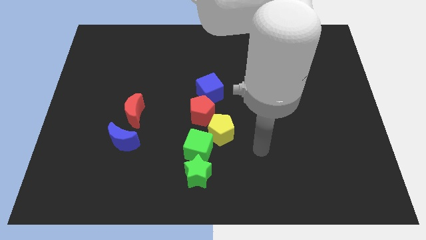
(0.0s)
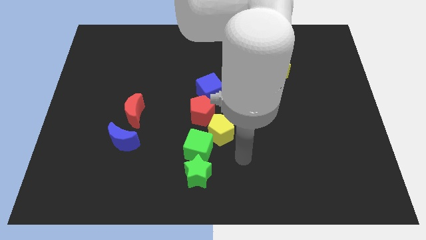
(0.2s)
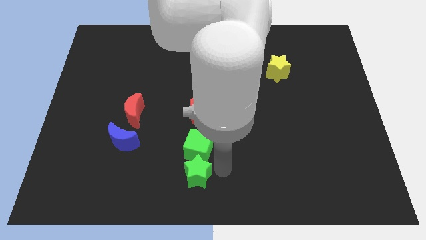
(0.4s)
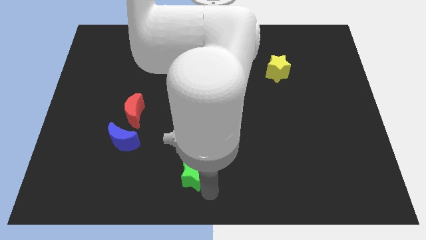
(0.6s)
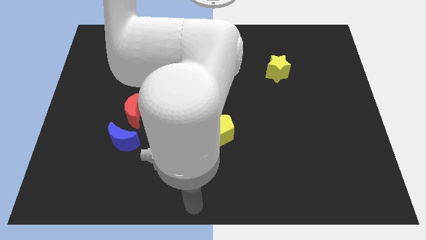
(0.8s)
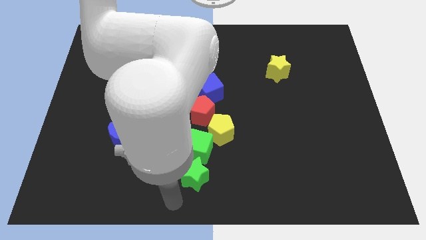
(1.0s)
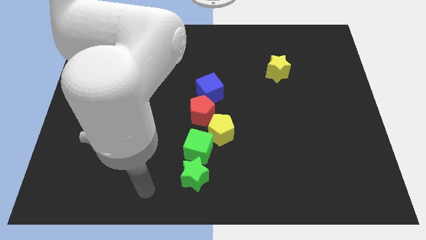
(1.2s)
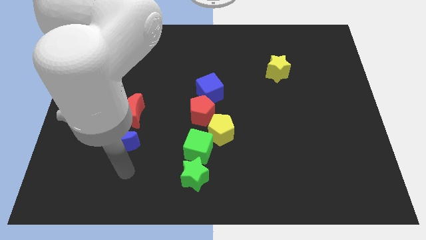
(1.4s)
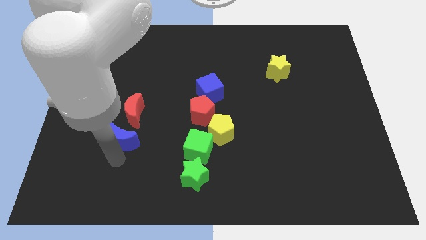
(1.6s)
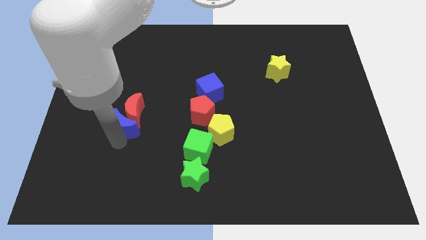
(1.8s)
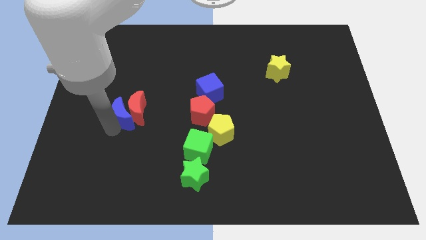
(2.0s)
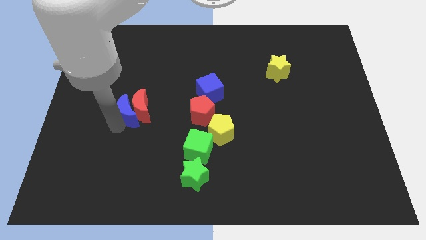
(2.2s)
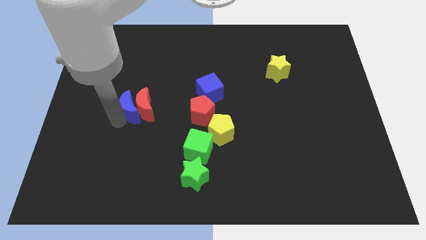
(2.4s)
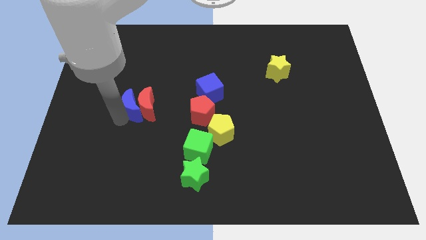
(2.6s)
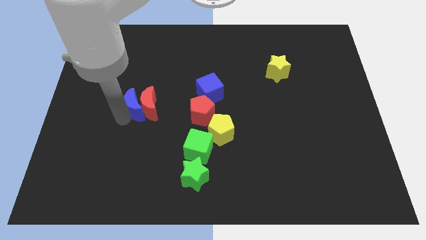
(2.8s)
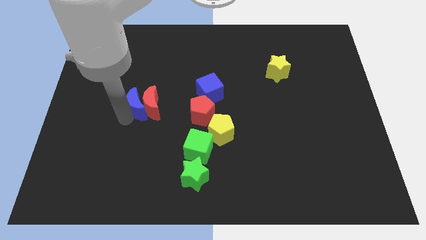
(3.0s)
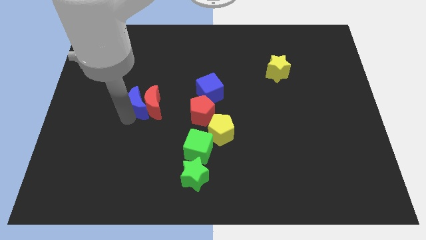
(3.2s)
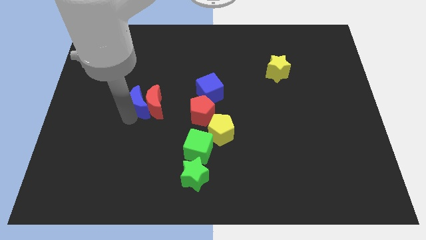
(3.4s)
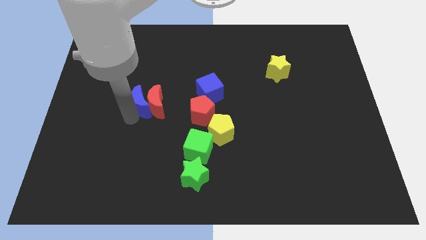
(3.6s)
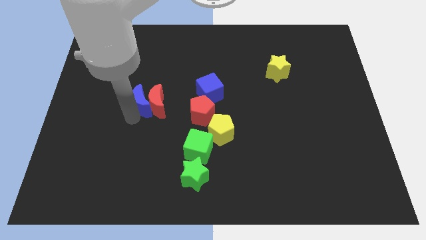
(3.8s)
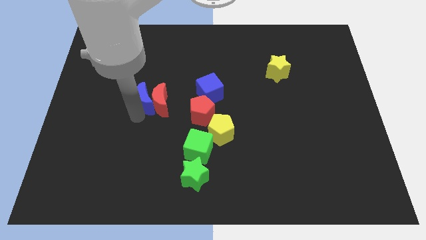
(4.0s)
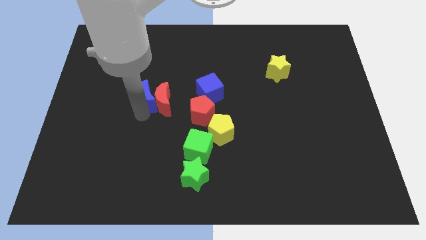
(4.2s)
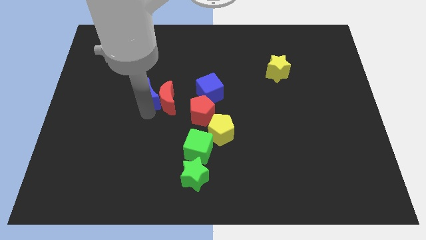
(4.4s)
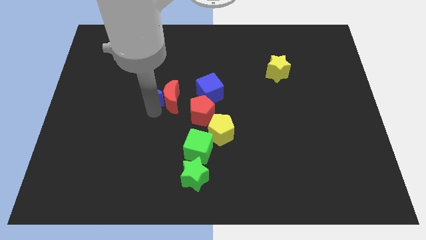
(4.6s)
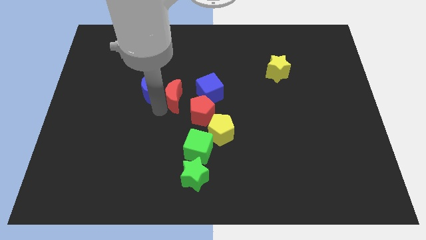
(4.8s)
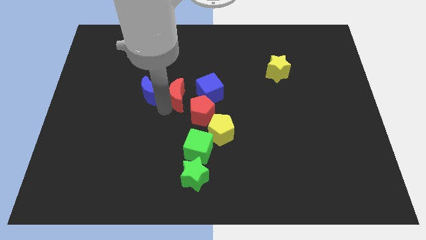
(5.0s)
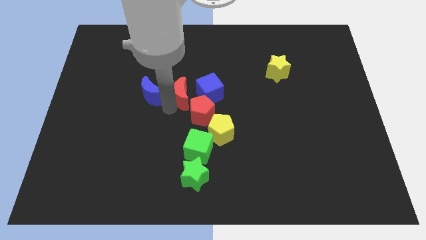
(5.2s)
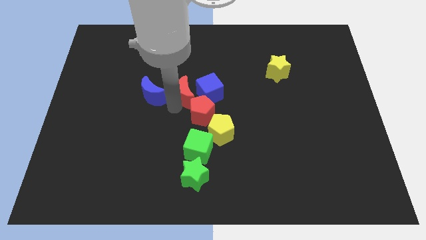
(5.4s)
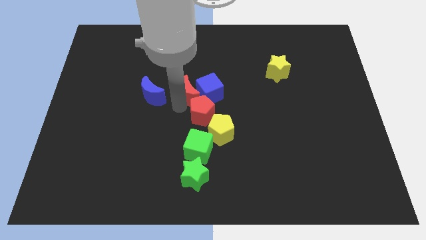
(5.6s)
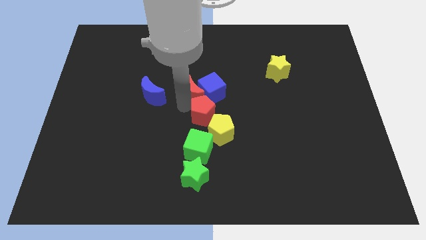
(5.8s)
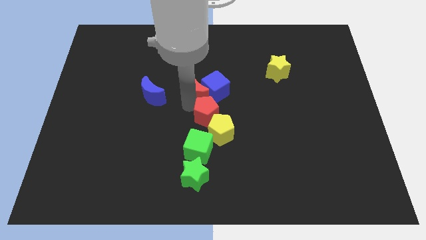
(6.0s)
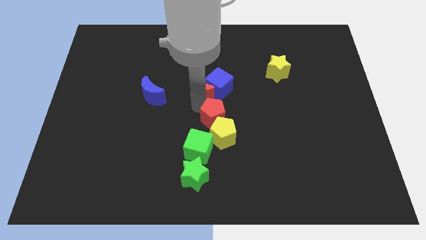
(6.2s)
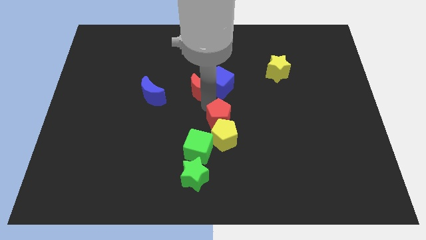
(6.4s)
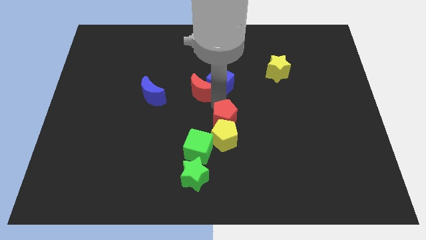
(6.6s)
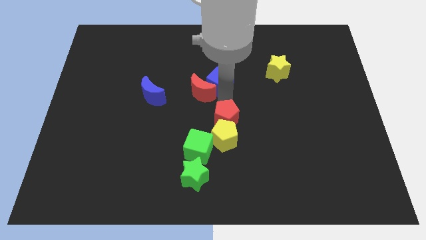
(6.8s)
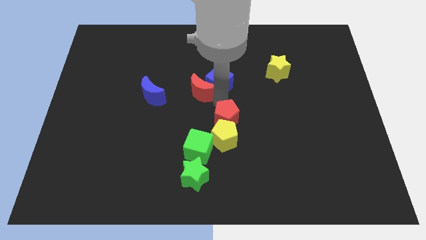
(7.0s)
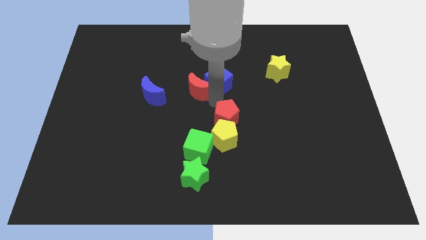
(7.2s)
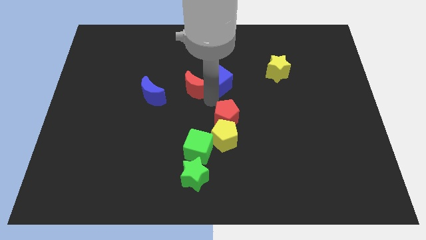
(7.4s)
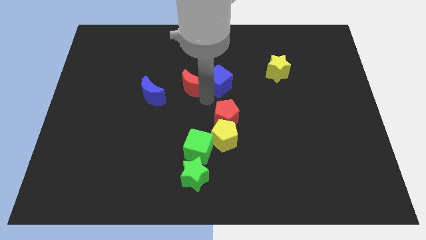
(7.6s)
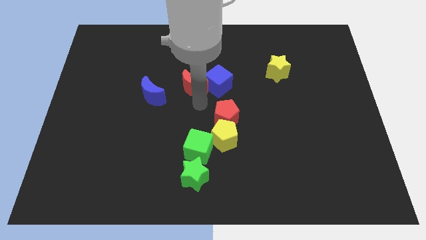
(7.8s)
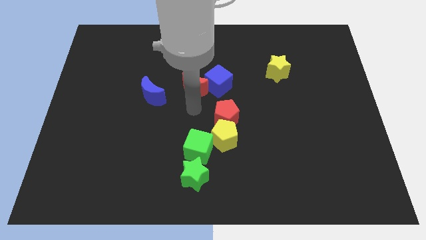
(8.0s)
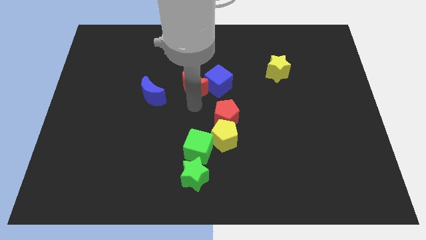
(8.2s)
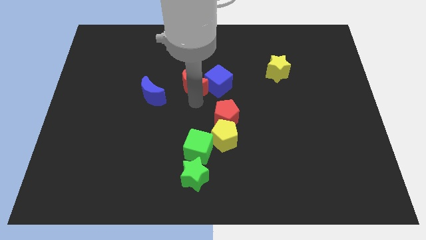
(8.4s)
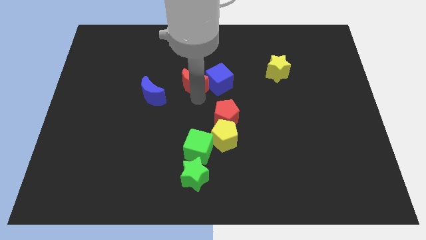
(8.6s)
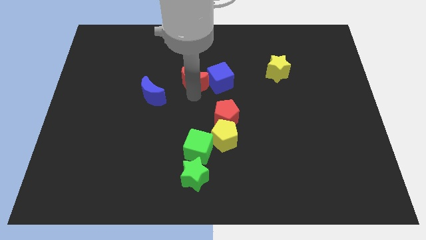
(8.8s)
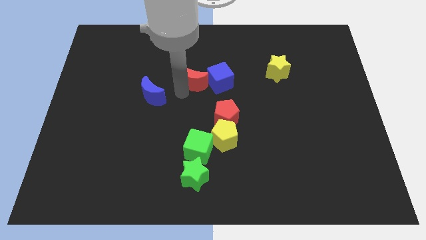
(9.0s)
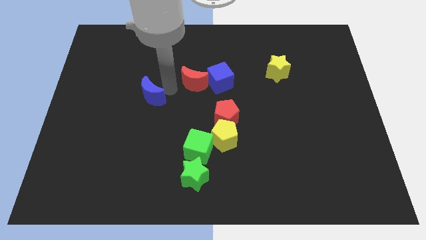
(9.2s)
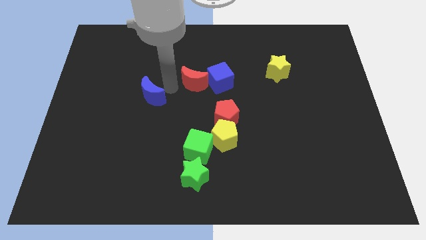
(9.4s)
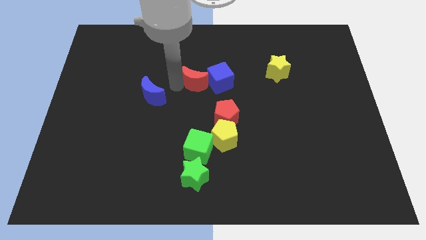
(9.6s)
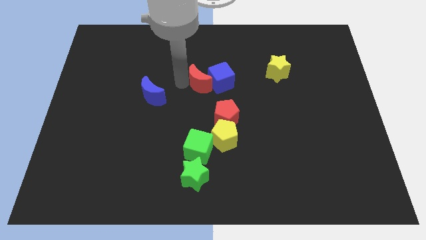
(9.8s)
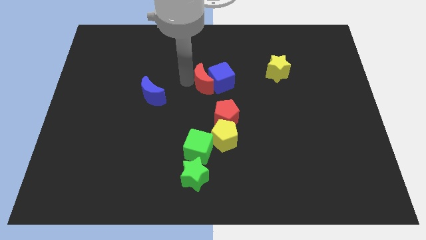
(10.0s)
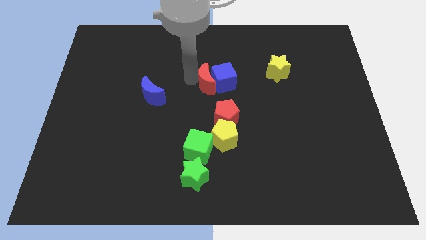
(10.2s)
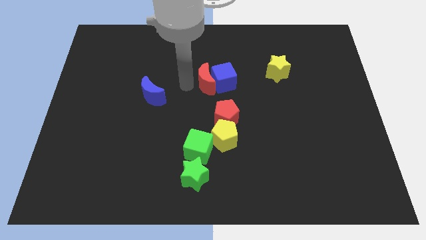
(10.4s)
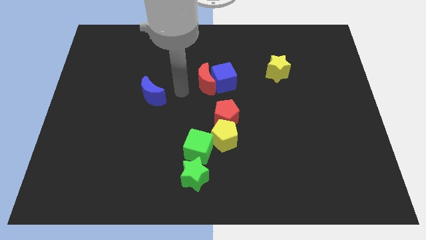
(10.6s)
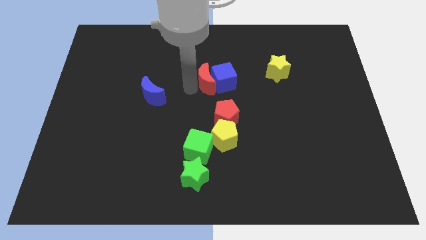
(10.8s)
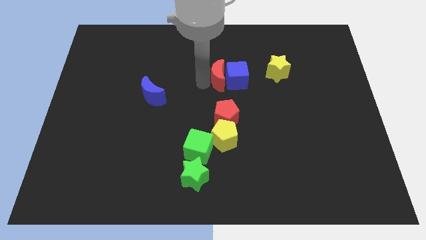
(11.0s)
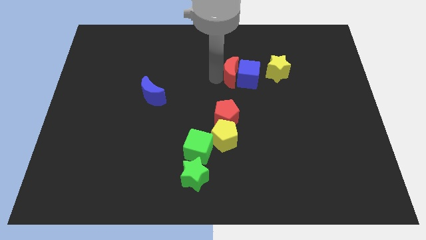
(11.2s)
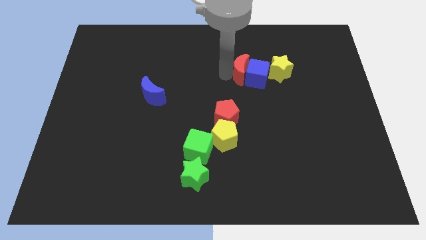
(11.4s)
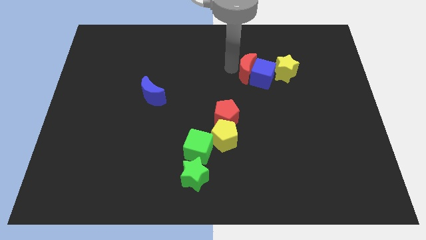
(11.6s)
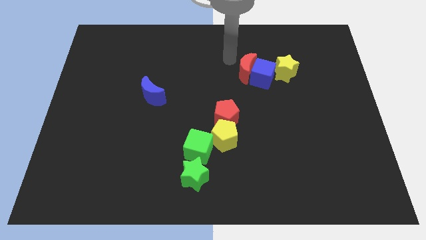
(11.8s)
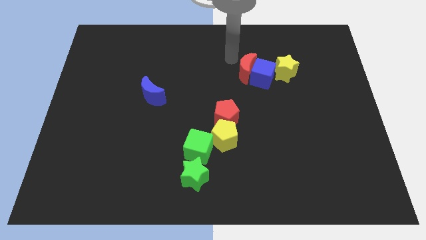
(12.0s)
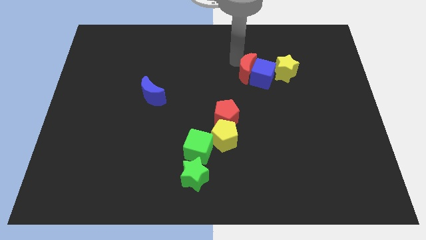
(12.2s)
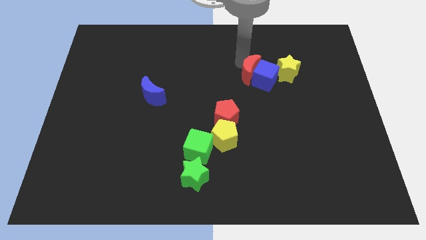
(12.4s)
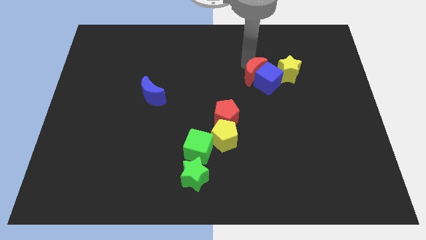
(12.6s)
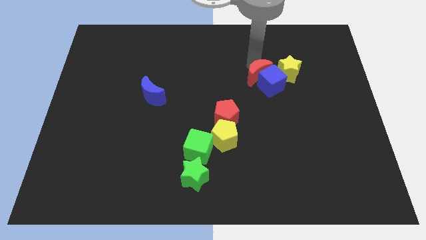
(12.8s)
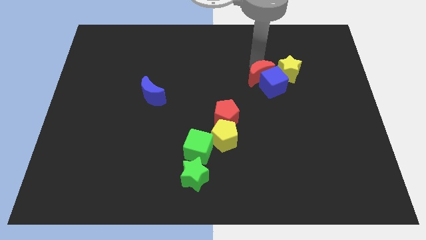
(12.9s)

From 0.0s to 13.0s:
move the red moon to the bottom left side of the yellow star

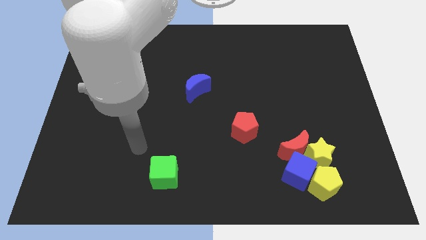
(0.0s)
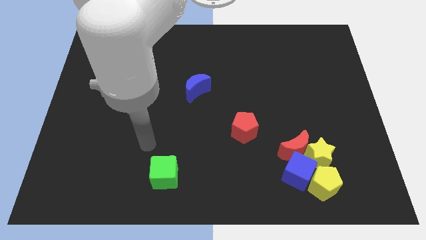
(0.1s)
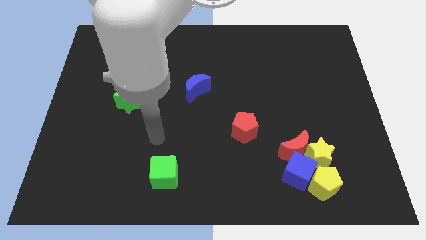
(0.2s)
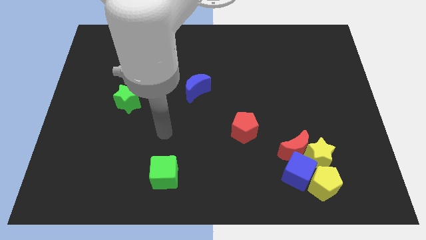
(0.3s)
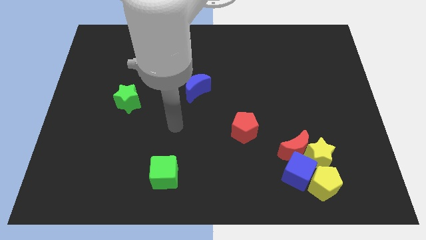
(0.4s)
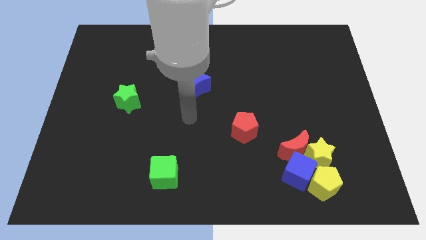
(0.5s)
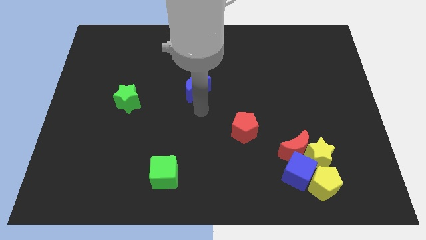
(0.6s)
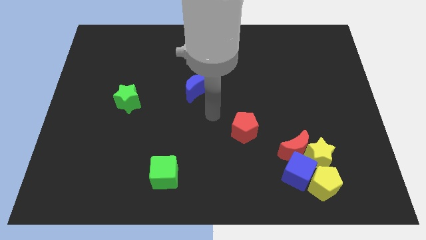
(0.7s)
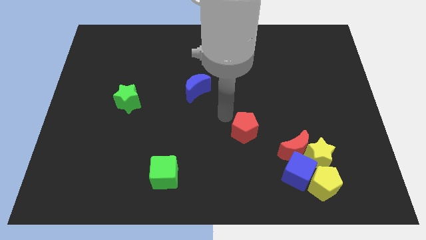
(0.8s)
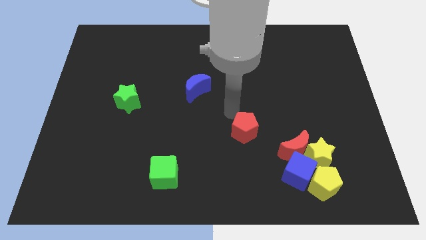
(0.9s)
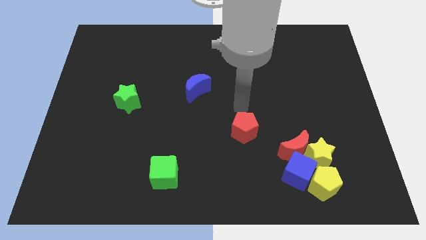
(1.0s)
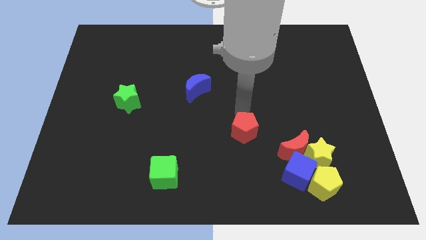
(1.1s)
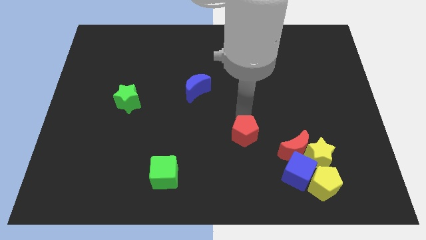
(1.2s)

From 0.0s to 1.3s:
put the red pentagon to the left of the red moon
